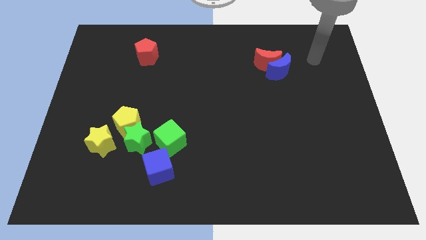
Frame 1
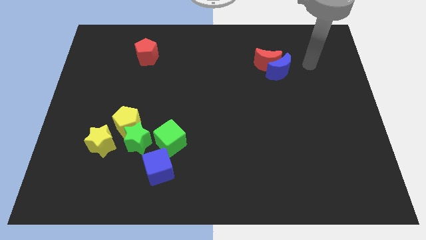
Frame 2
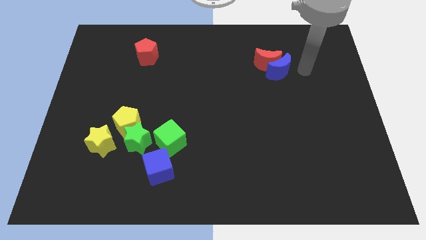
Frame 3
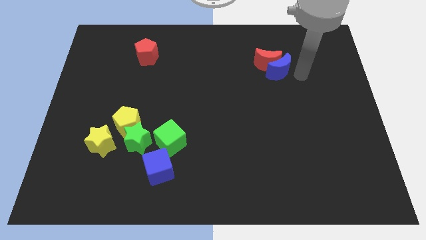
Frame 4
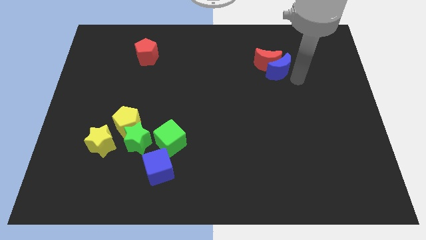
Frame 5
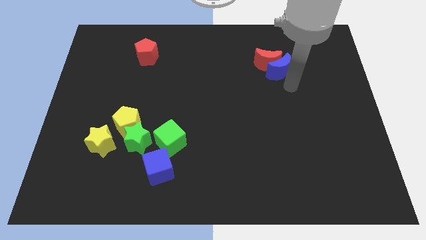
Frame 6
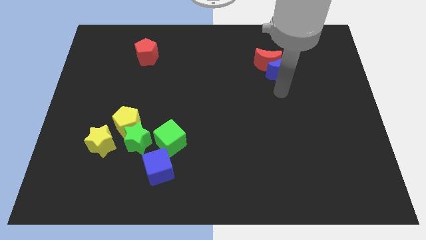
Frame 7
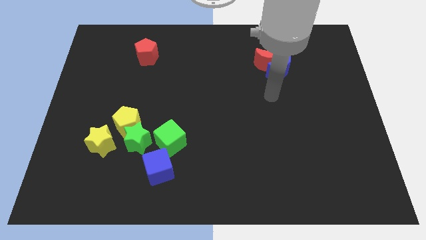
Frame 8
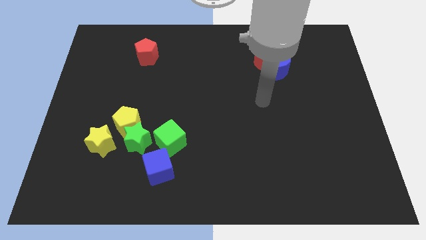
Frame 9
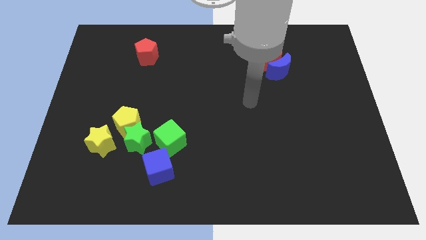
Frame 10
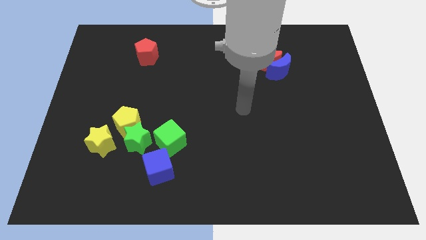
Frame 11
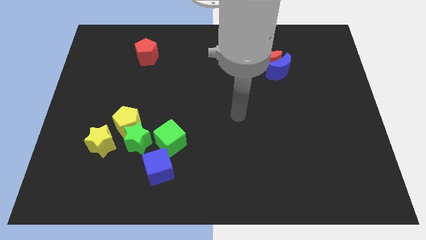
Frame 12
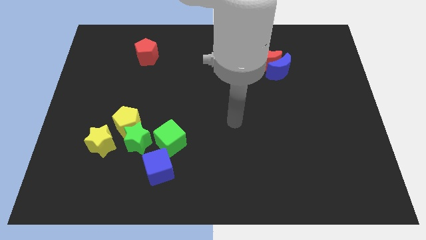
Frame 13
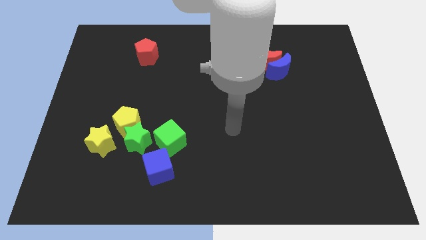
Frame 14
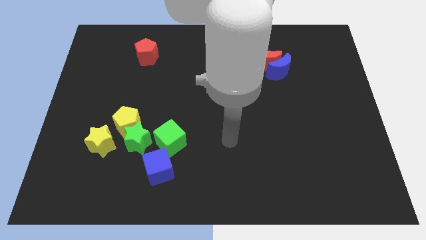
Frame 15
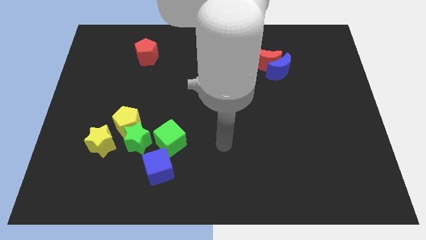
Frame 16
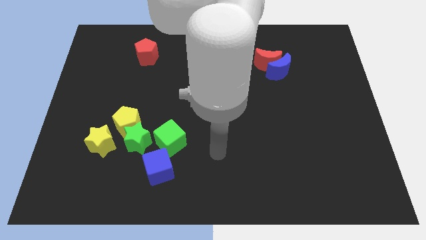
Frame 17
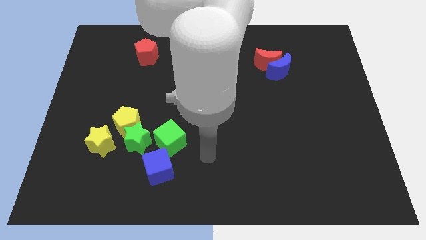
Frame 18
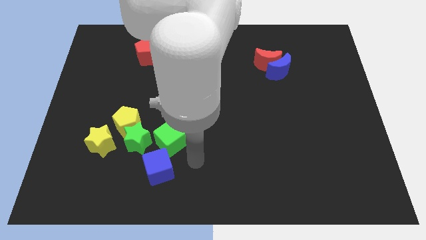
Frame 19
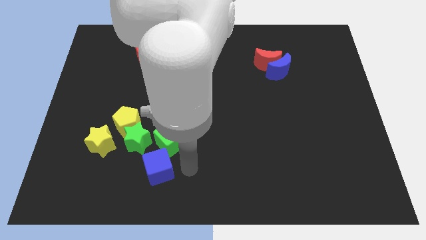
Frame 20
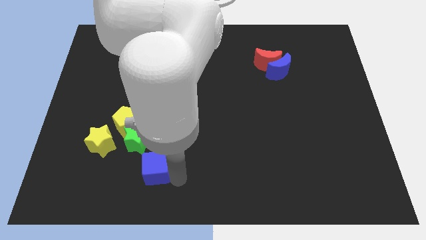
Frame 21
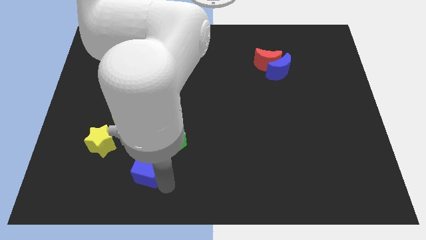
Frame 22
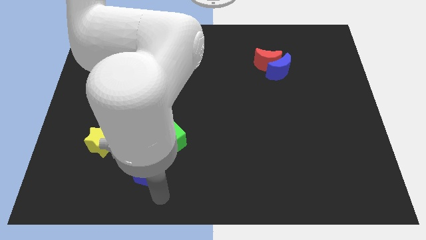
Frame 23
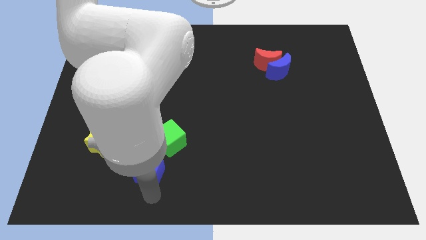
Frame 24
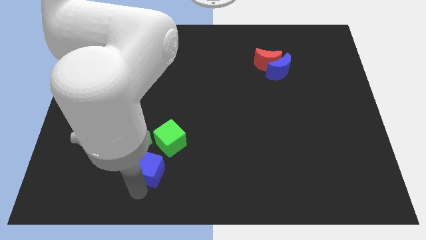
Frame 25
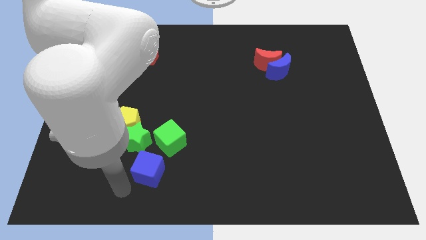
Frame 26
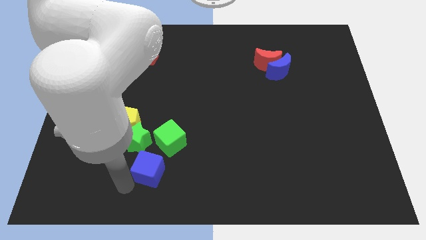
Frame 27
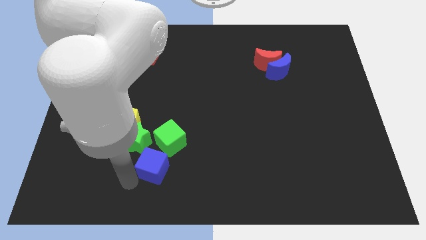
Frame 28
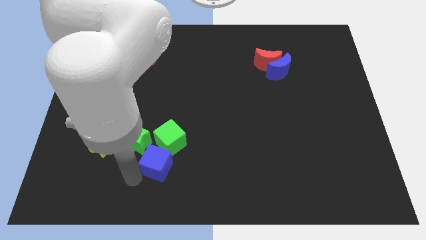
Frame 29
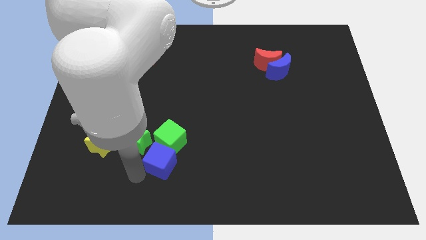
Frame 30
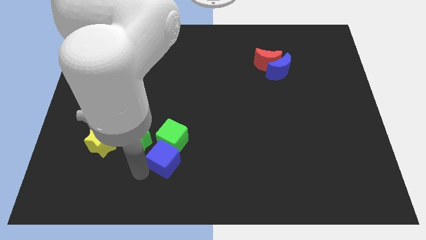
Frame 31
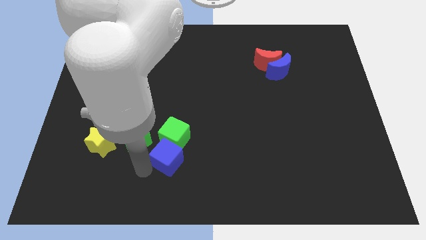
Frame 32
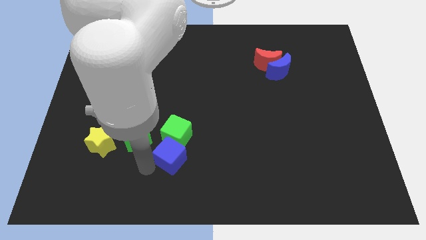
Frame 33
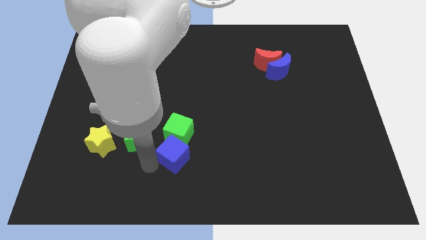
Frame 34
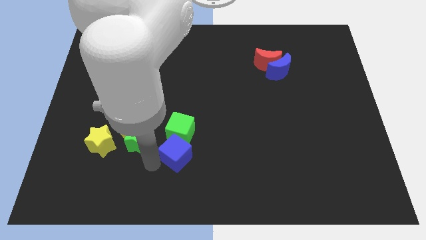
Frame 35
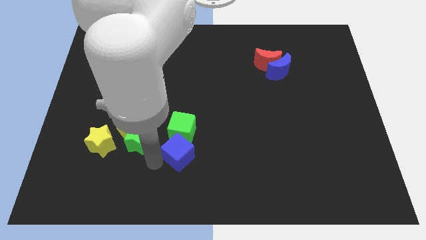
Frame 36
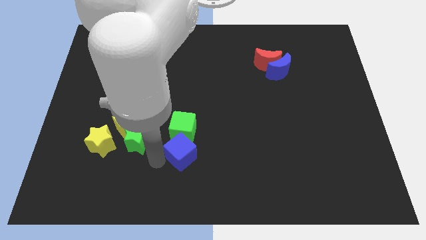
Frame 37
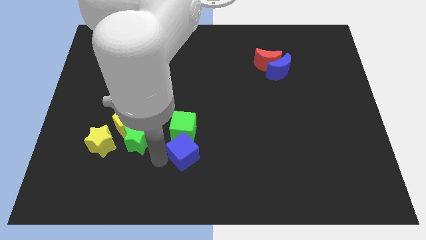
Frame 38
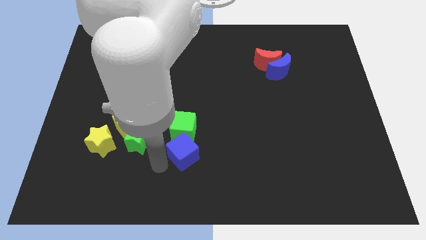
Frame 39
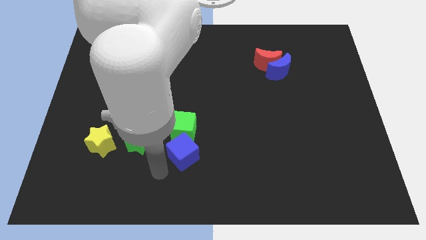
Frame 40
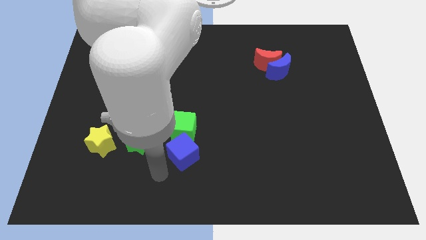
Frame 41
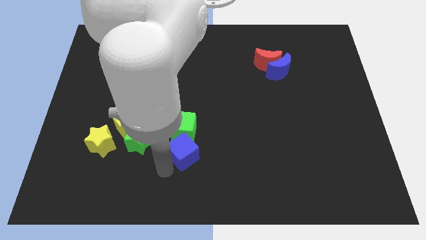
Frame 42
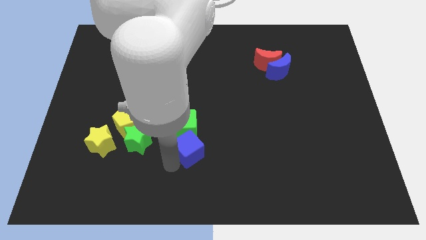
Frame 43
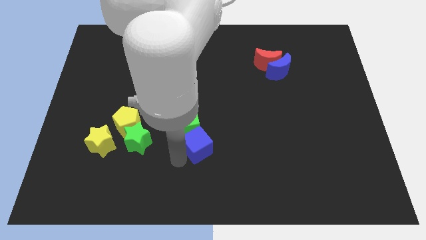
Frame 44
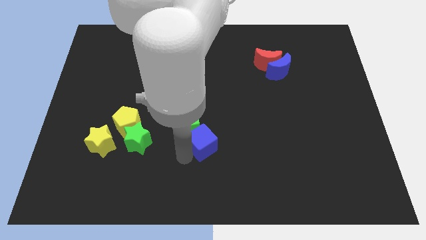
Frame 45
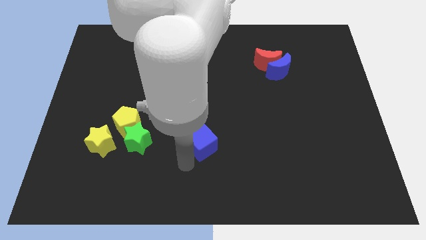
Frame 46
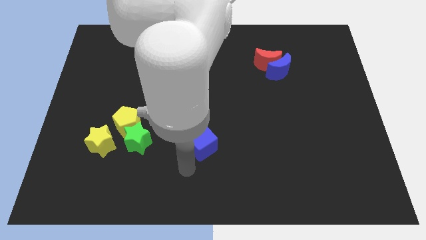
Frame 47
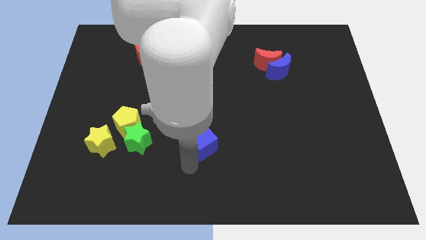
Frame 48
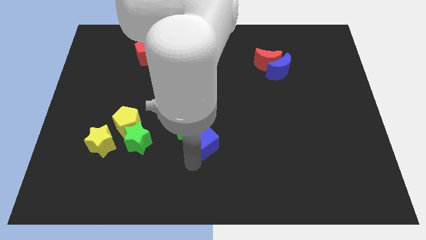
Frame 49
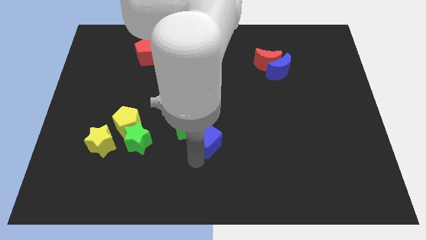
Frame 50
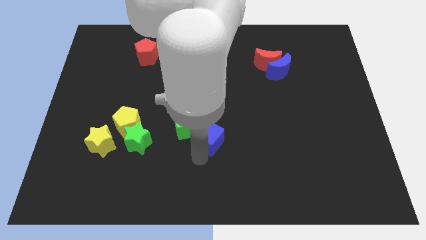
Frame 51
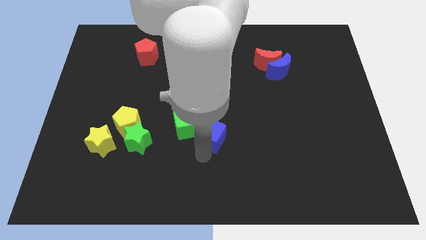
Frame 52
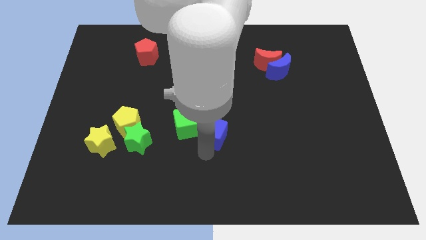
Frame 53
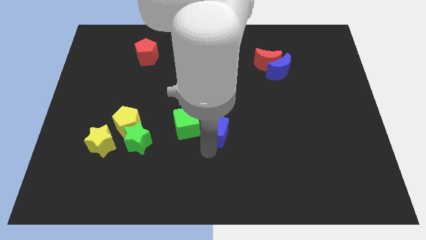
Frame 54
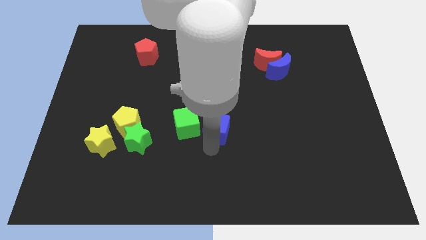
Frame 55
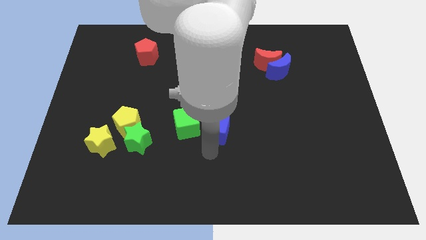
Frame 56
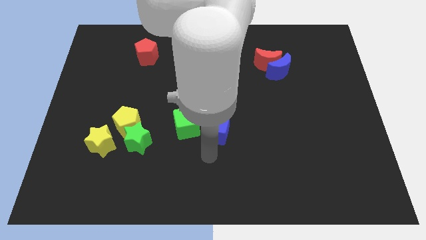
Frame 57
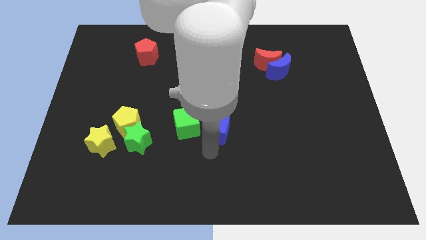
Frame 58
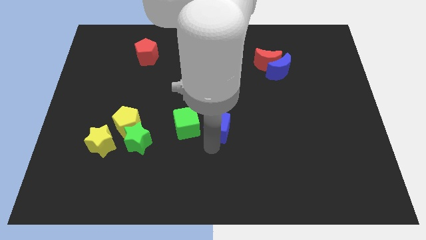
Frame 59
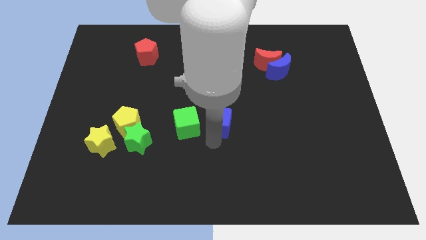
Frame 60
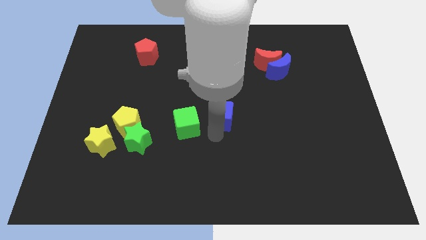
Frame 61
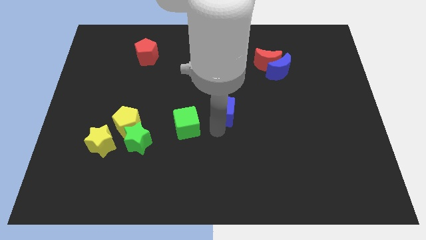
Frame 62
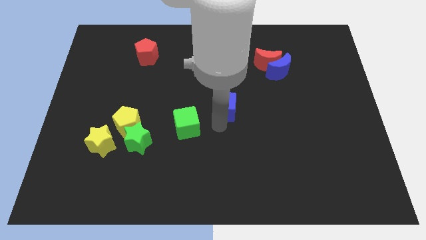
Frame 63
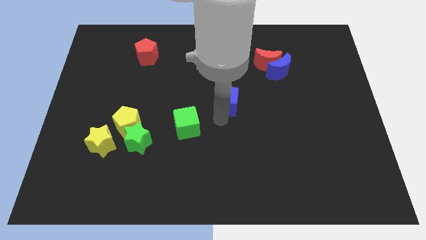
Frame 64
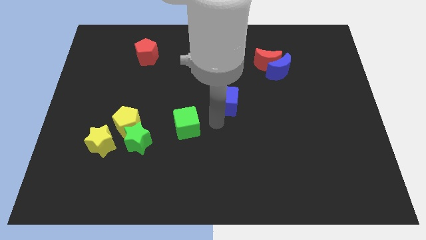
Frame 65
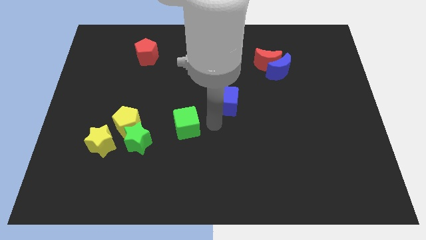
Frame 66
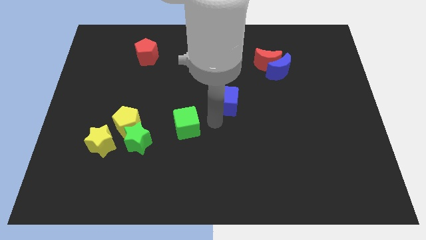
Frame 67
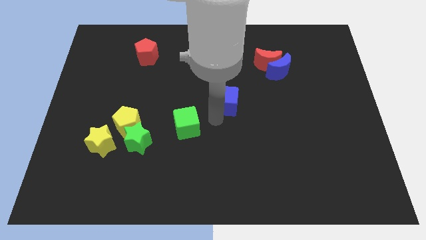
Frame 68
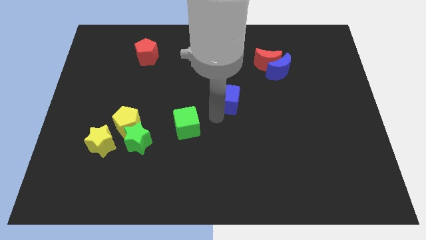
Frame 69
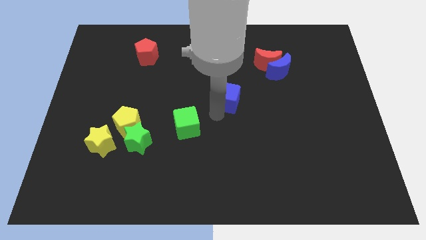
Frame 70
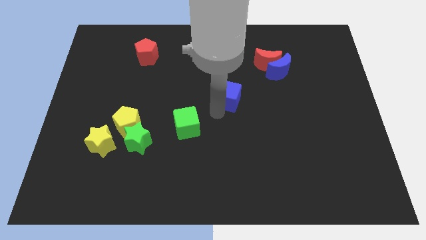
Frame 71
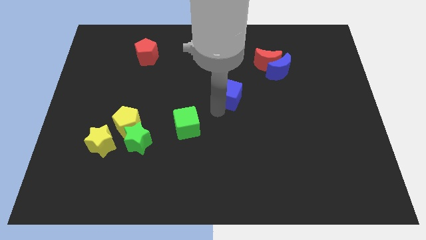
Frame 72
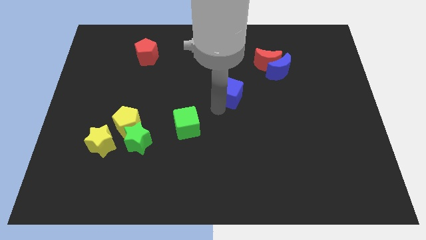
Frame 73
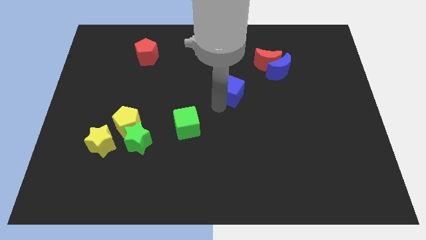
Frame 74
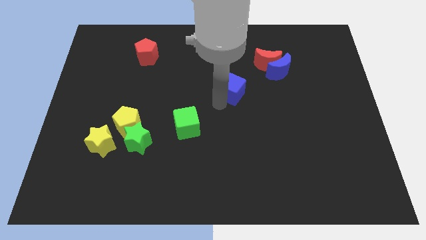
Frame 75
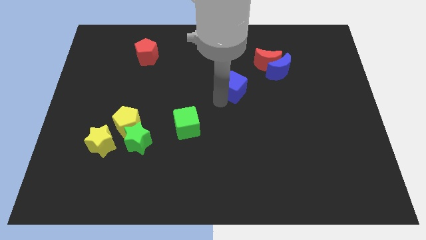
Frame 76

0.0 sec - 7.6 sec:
put the blue cube diagonally down and to the left of the red moon
